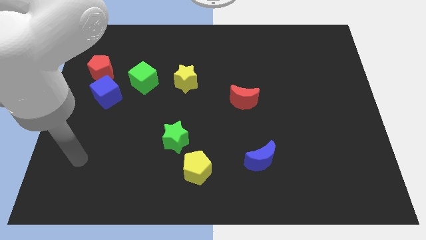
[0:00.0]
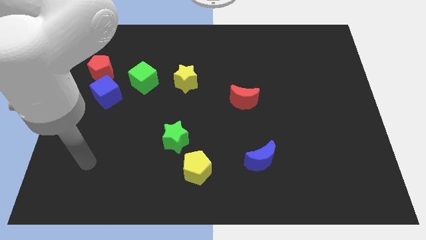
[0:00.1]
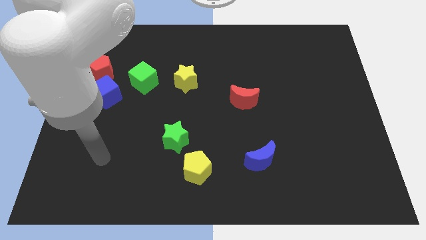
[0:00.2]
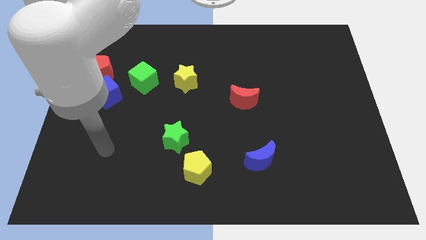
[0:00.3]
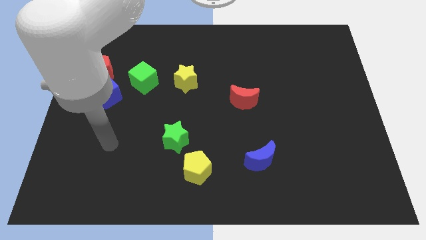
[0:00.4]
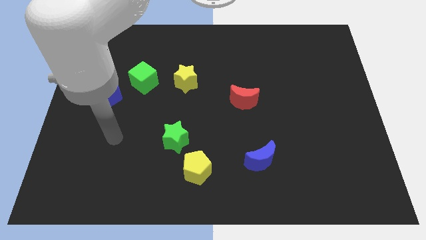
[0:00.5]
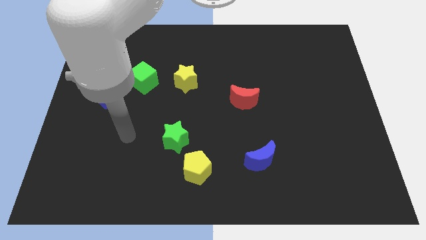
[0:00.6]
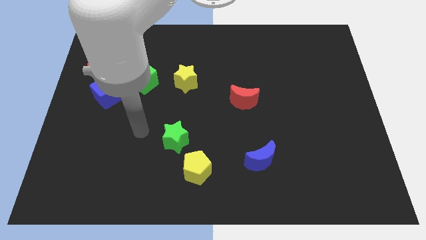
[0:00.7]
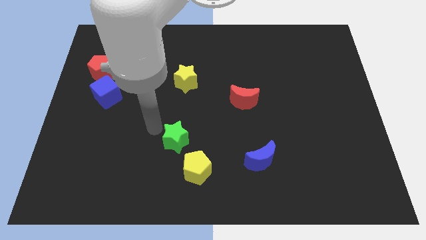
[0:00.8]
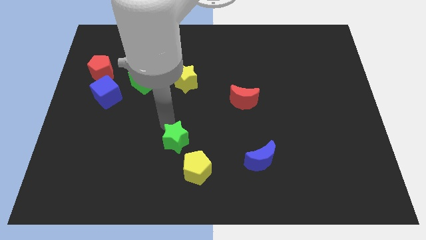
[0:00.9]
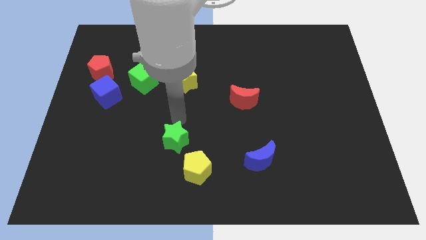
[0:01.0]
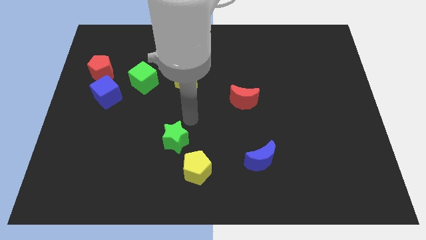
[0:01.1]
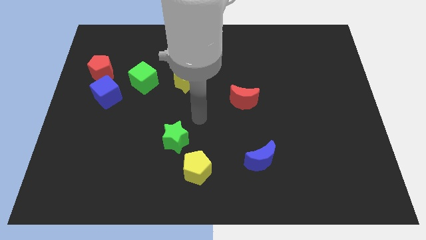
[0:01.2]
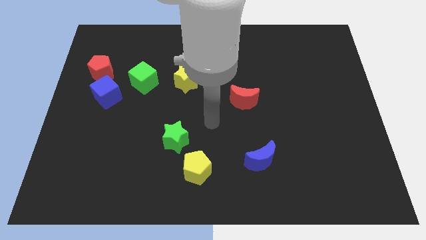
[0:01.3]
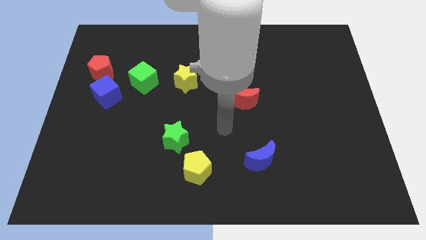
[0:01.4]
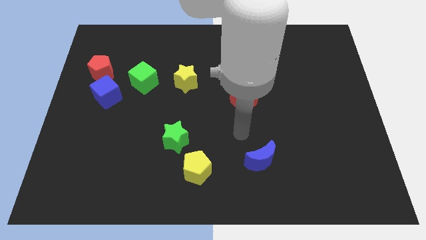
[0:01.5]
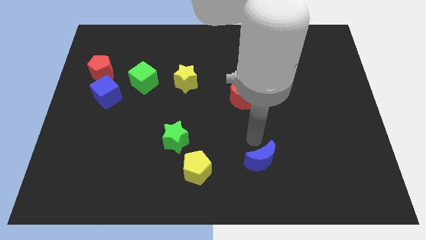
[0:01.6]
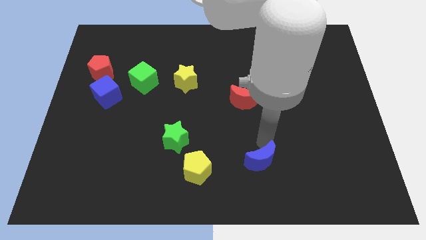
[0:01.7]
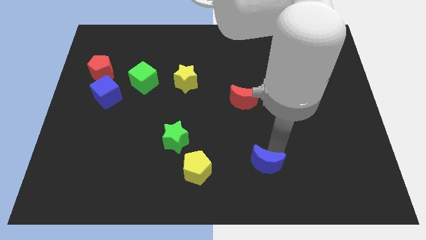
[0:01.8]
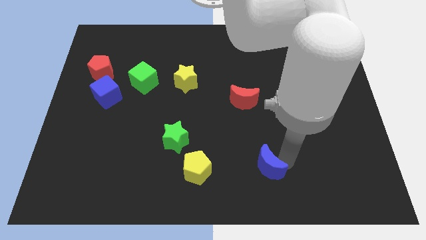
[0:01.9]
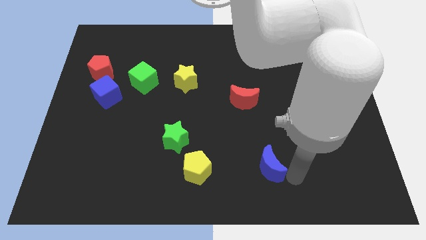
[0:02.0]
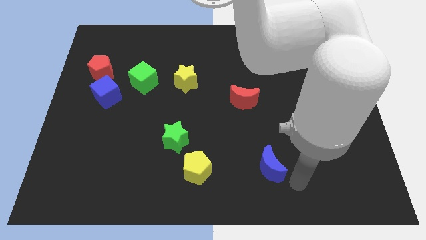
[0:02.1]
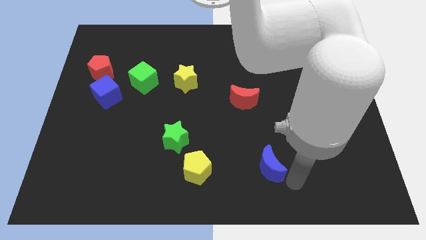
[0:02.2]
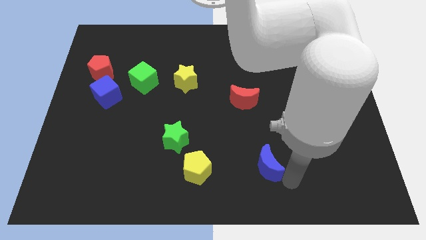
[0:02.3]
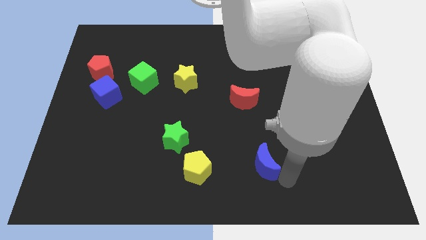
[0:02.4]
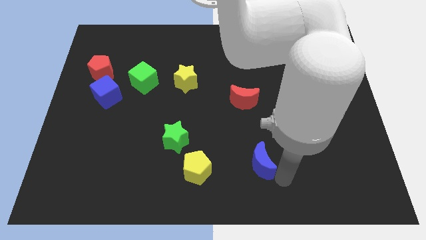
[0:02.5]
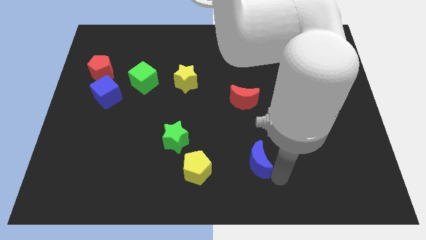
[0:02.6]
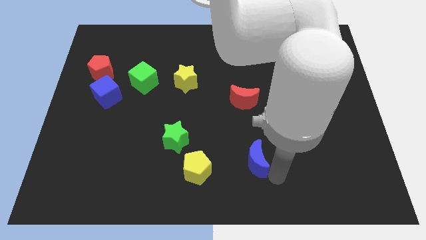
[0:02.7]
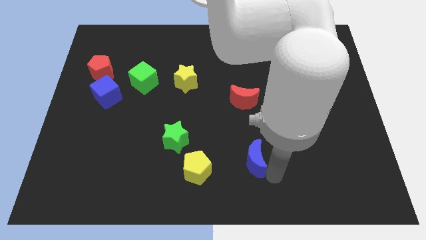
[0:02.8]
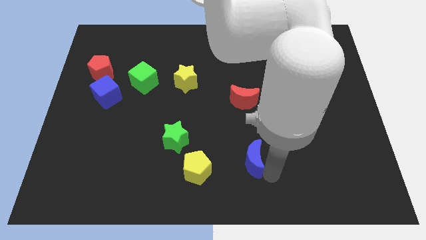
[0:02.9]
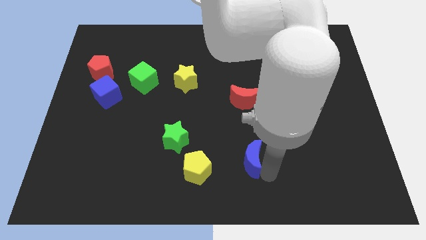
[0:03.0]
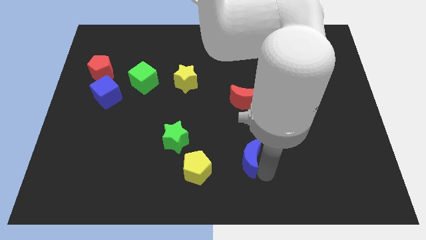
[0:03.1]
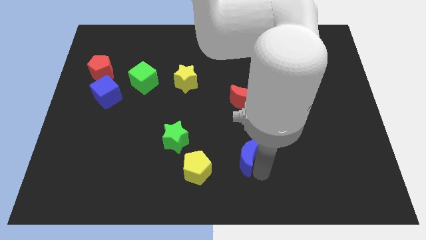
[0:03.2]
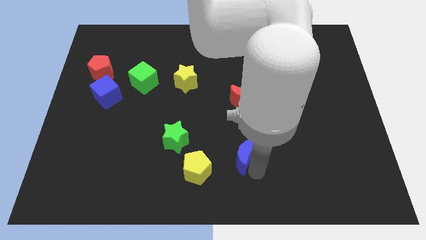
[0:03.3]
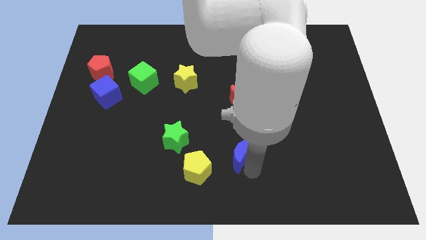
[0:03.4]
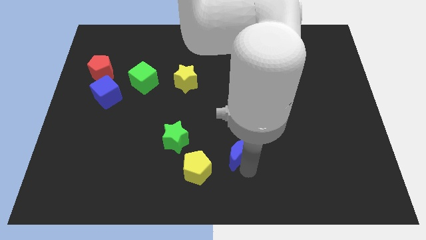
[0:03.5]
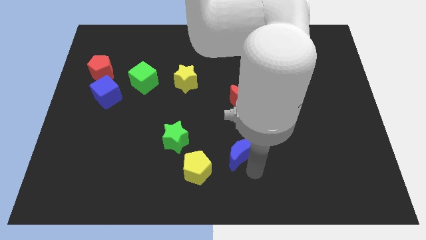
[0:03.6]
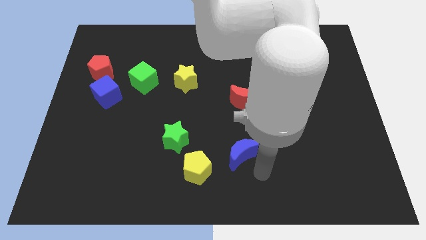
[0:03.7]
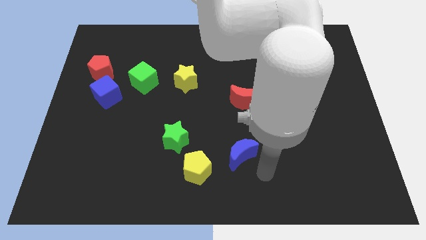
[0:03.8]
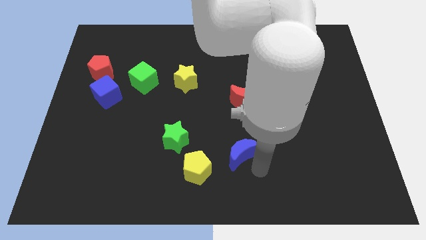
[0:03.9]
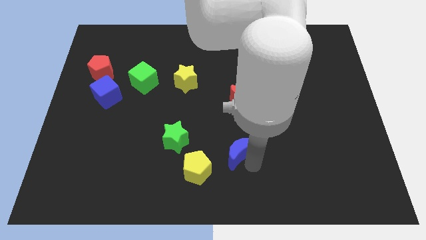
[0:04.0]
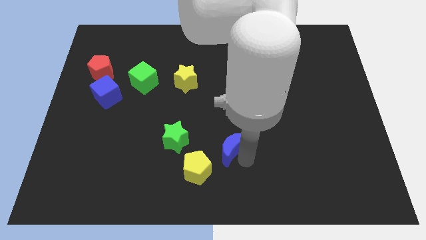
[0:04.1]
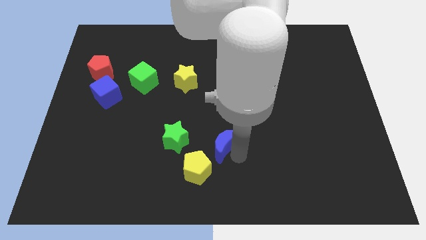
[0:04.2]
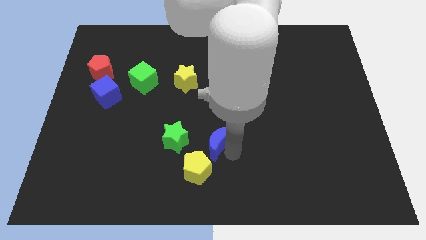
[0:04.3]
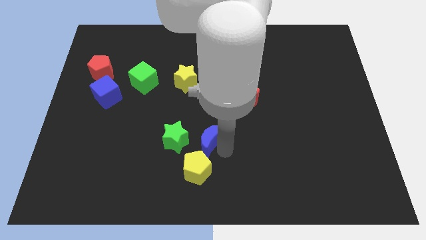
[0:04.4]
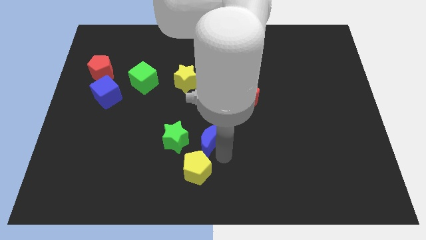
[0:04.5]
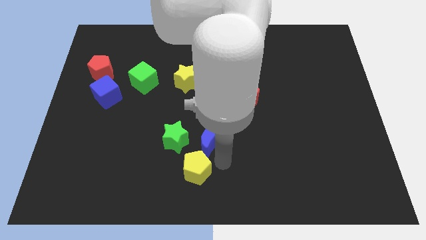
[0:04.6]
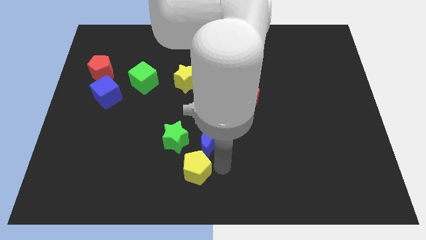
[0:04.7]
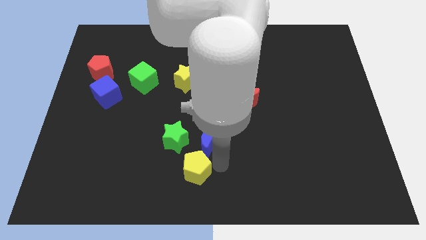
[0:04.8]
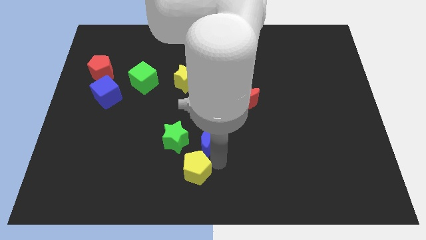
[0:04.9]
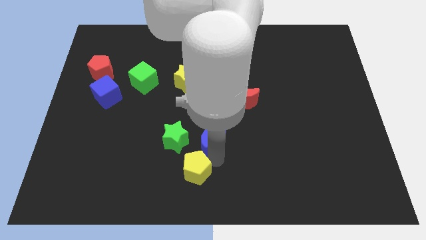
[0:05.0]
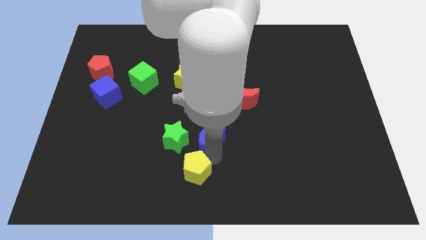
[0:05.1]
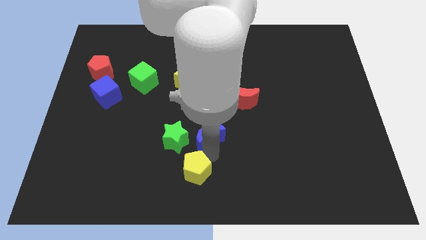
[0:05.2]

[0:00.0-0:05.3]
put the blue moon to the top right side of the green star

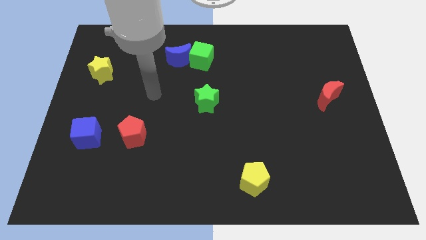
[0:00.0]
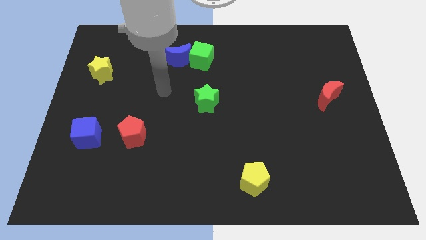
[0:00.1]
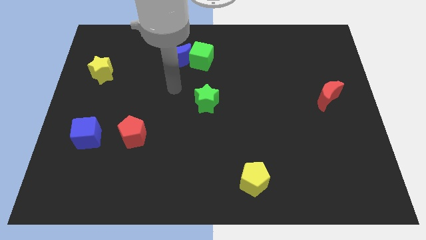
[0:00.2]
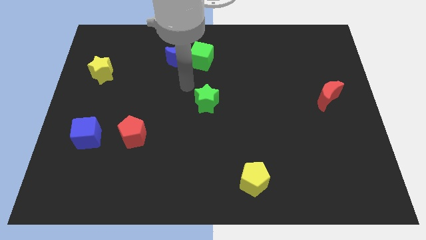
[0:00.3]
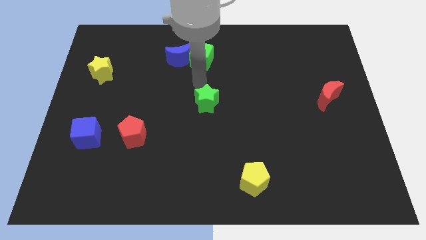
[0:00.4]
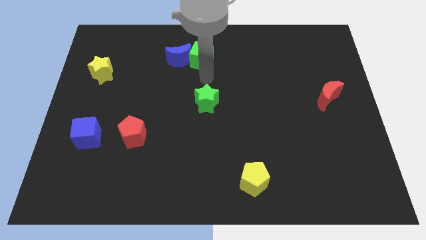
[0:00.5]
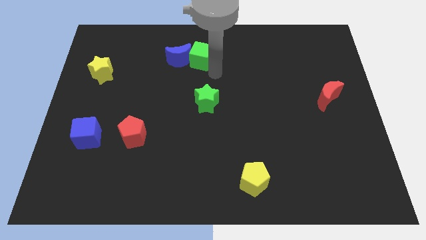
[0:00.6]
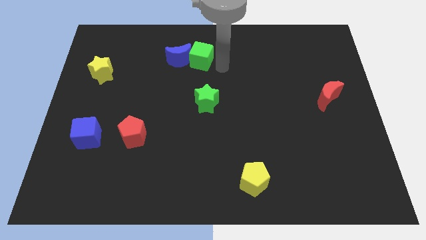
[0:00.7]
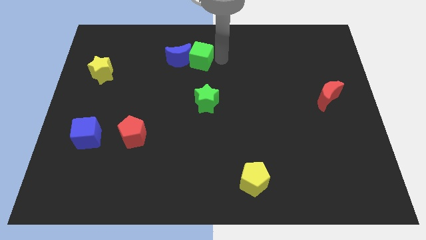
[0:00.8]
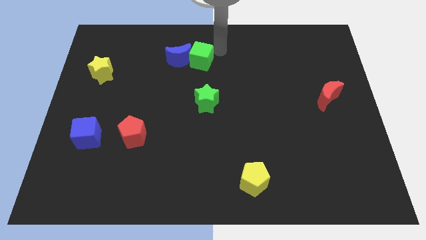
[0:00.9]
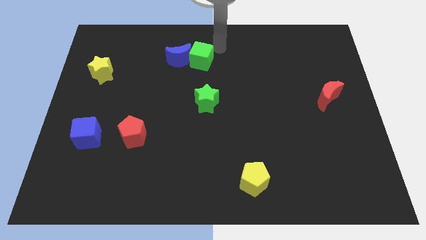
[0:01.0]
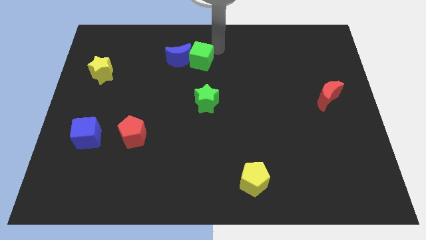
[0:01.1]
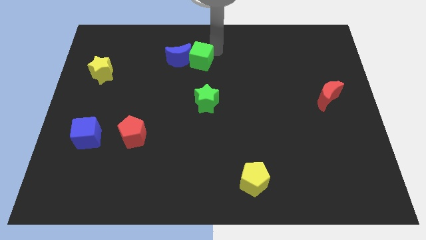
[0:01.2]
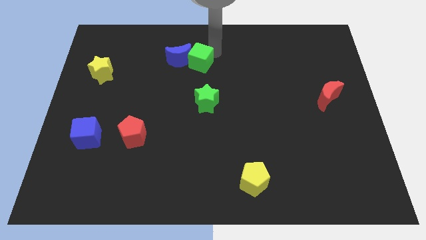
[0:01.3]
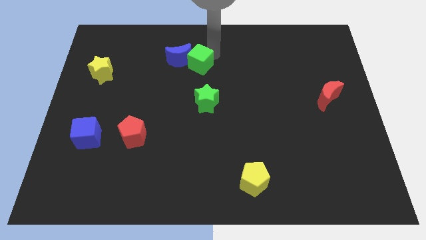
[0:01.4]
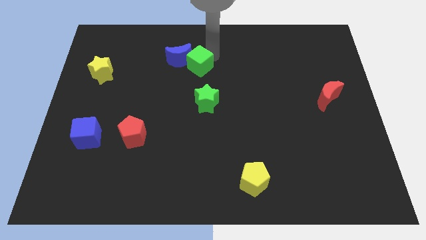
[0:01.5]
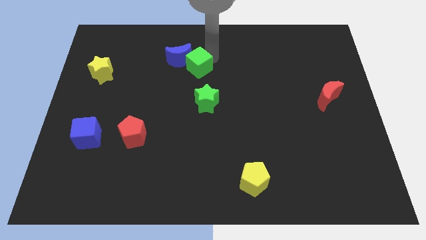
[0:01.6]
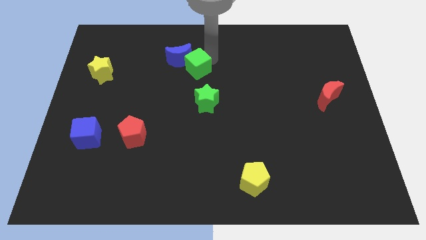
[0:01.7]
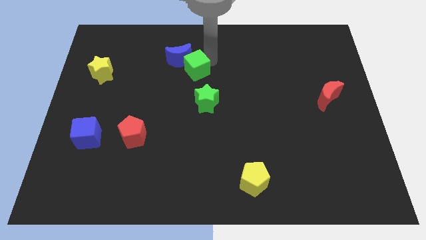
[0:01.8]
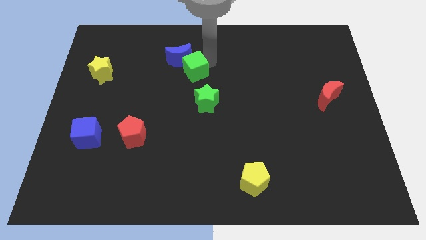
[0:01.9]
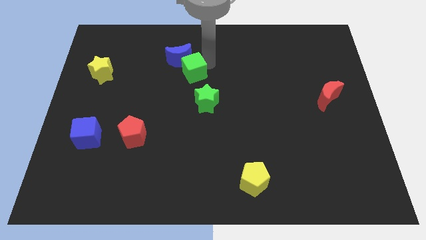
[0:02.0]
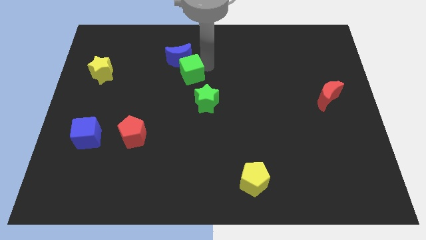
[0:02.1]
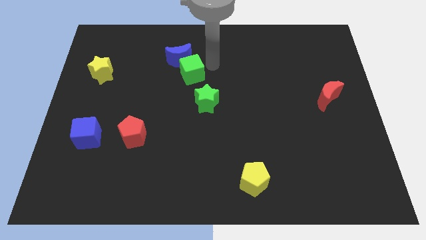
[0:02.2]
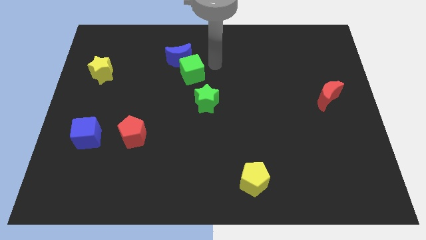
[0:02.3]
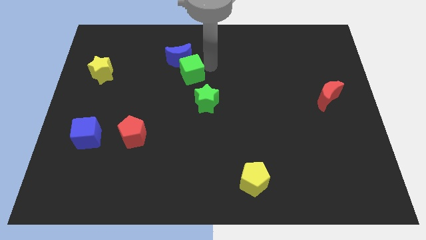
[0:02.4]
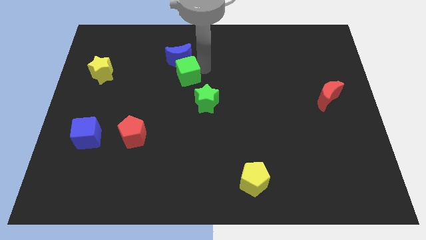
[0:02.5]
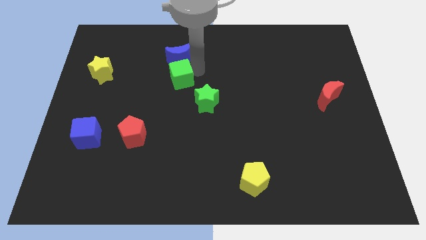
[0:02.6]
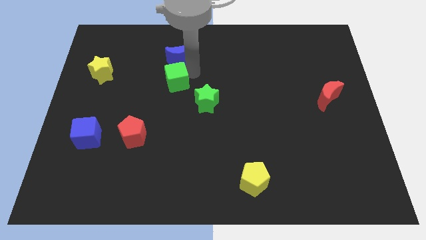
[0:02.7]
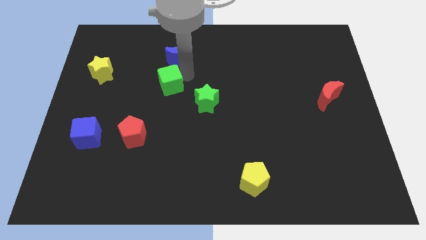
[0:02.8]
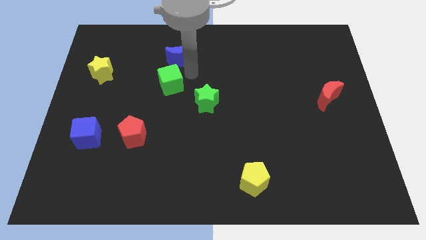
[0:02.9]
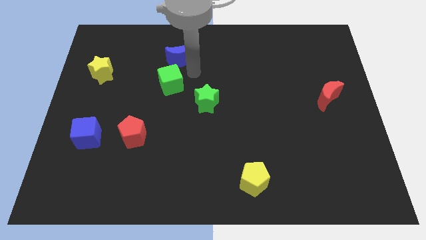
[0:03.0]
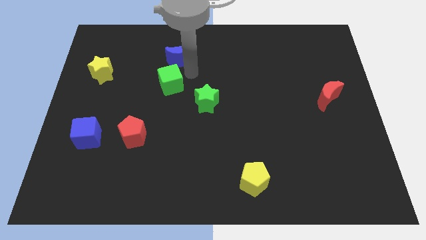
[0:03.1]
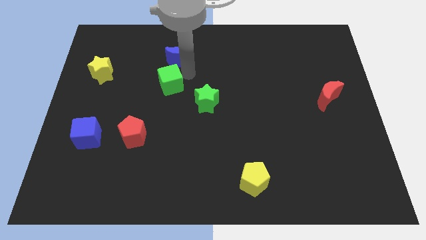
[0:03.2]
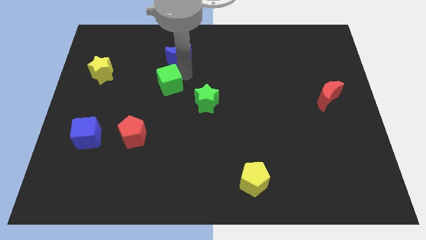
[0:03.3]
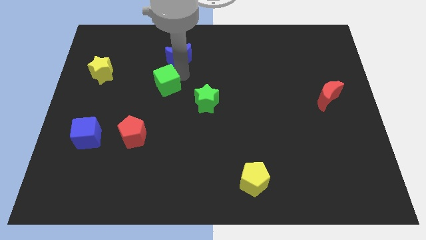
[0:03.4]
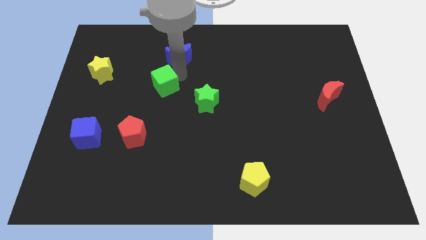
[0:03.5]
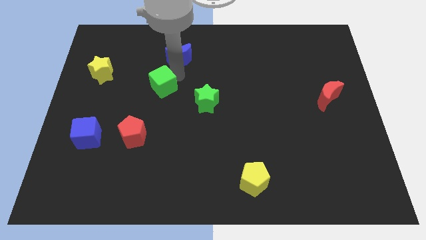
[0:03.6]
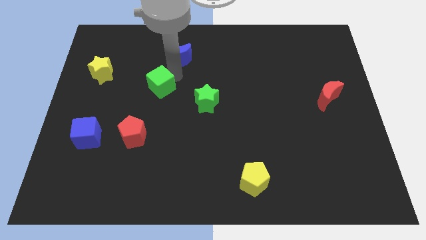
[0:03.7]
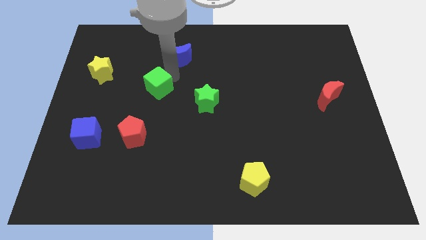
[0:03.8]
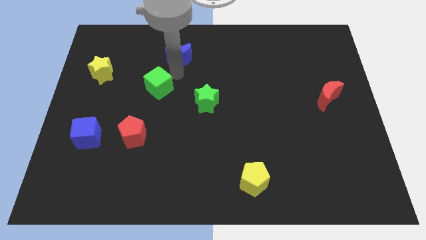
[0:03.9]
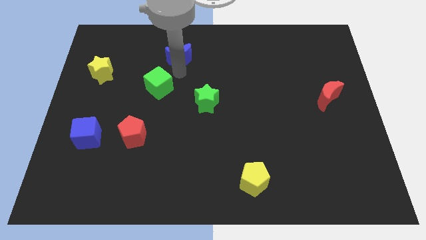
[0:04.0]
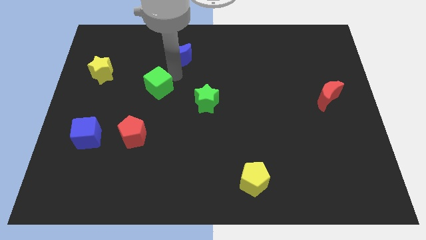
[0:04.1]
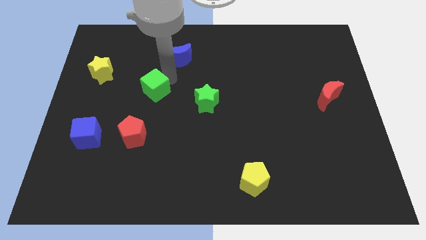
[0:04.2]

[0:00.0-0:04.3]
move the green cube above the red pentagon
